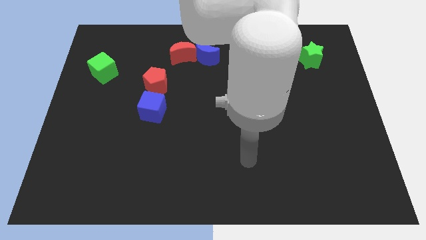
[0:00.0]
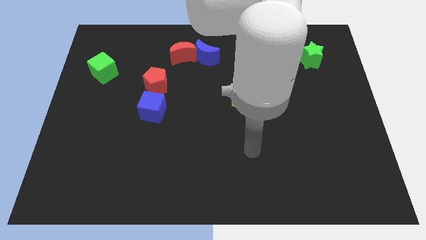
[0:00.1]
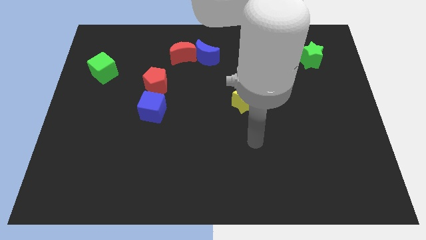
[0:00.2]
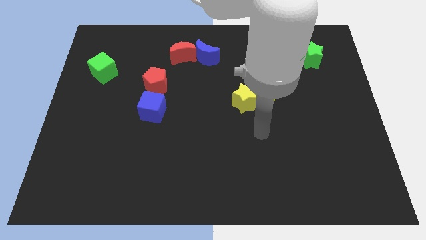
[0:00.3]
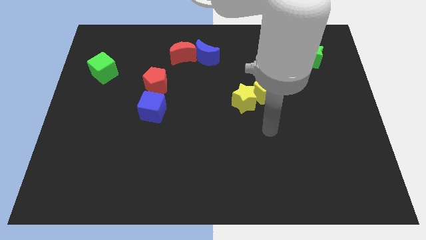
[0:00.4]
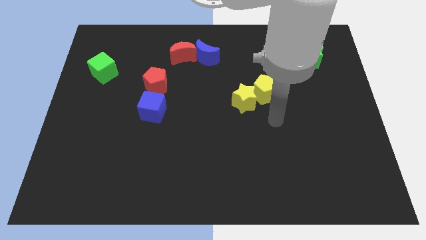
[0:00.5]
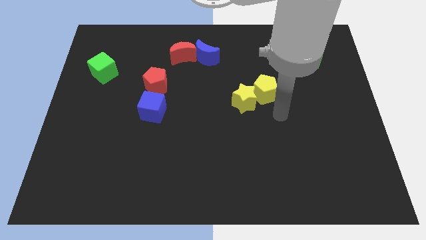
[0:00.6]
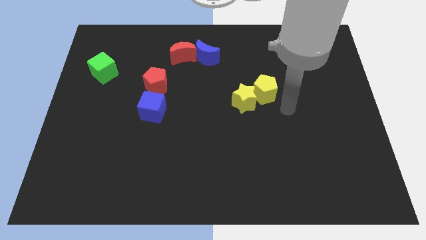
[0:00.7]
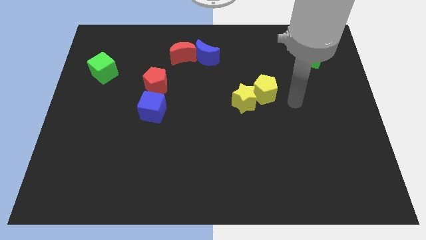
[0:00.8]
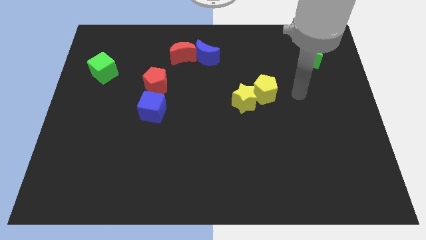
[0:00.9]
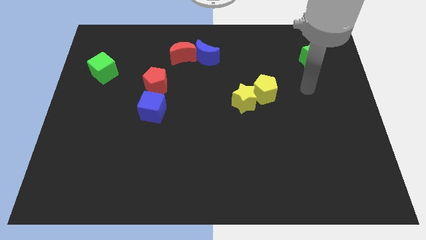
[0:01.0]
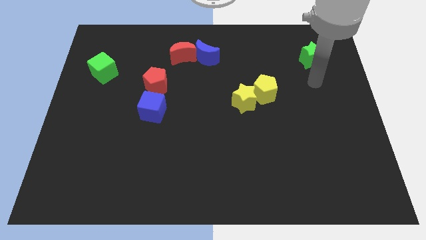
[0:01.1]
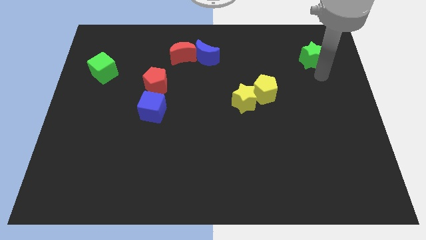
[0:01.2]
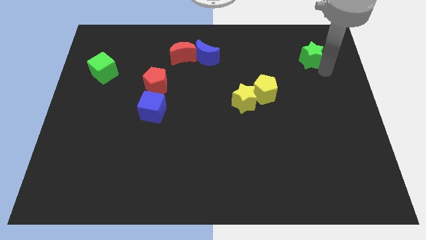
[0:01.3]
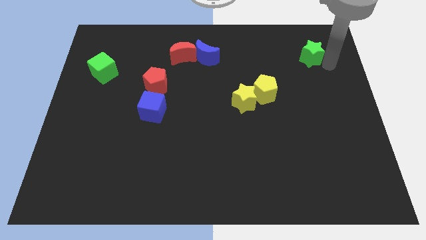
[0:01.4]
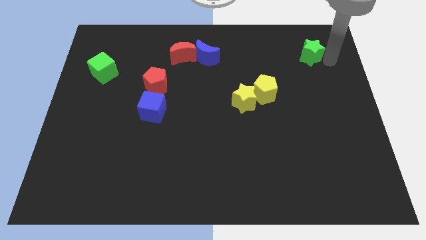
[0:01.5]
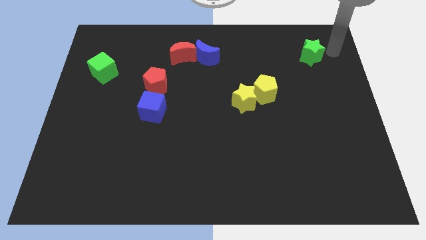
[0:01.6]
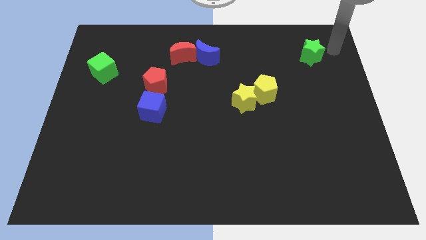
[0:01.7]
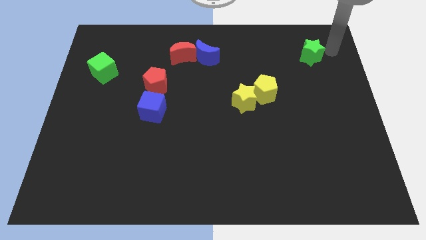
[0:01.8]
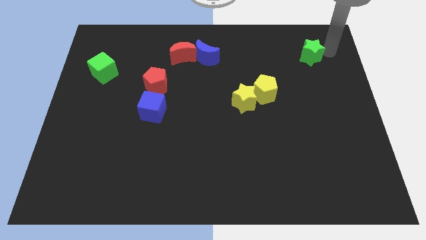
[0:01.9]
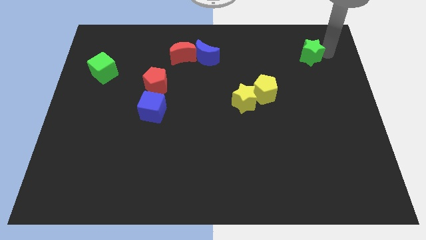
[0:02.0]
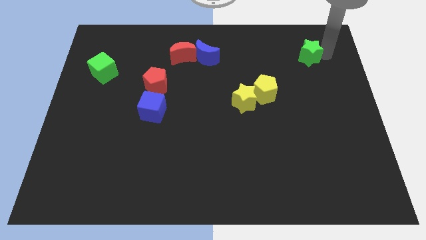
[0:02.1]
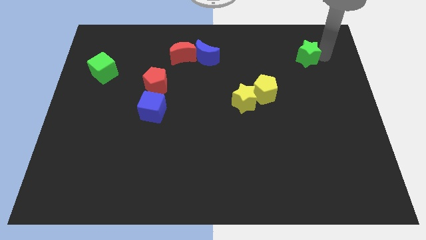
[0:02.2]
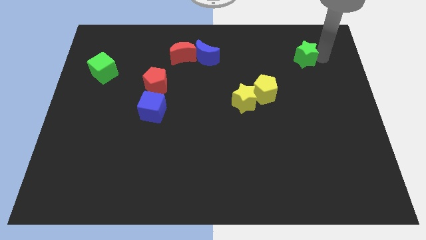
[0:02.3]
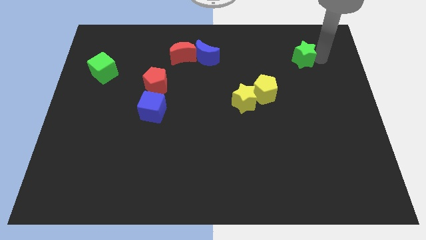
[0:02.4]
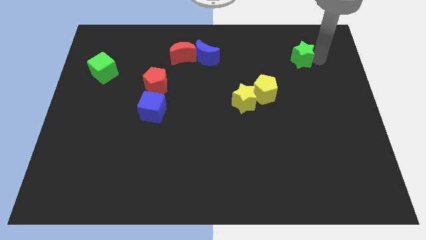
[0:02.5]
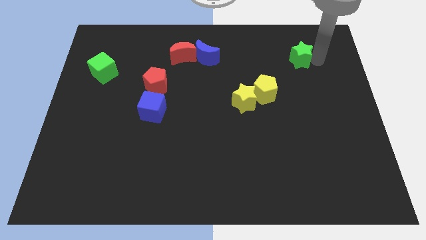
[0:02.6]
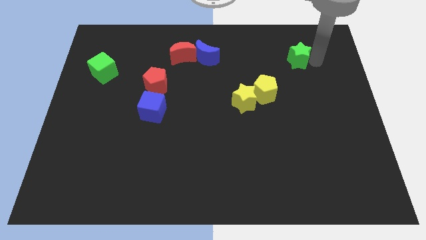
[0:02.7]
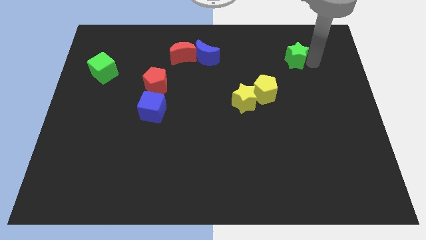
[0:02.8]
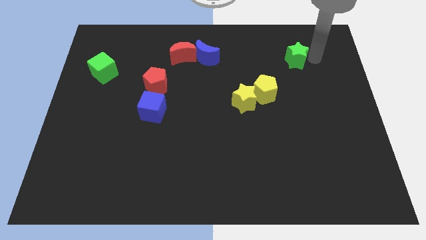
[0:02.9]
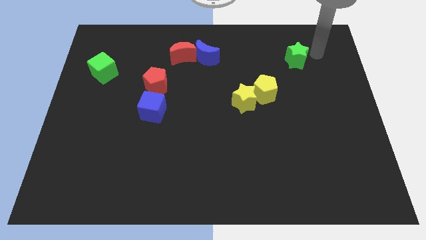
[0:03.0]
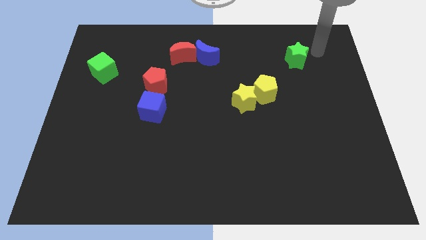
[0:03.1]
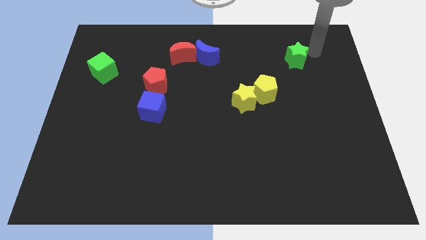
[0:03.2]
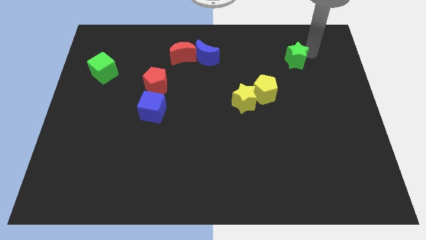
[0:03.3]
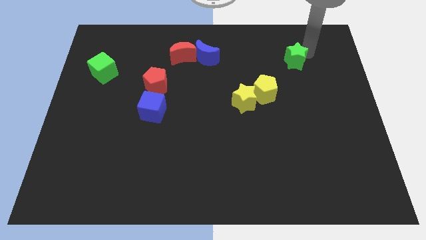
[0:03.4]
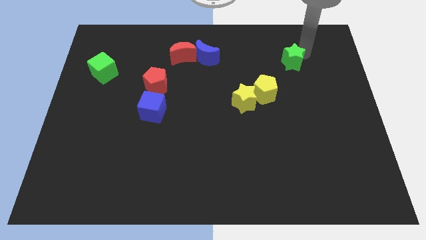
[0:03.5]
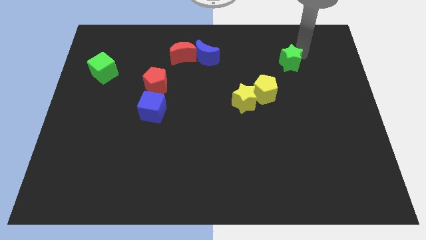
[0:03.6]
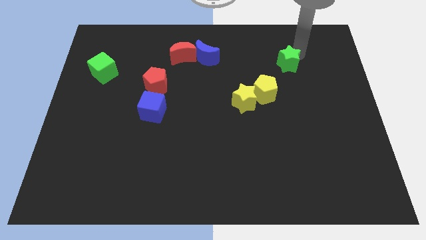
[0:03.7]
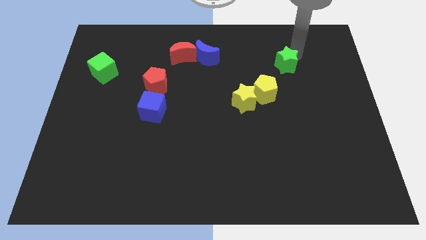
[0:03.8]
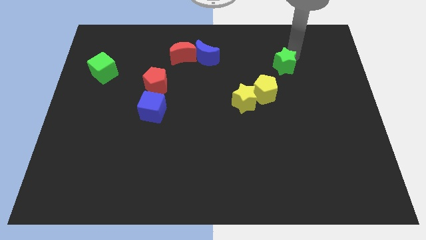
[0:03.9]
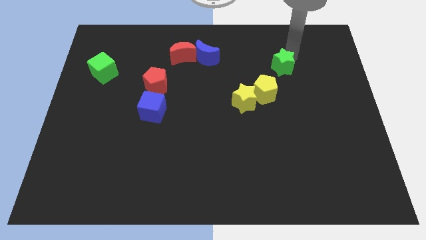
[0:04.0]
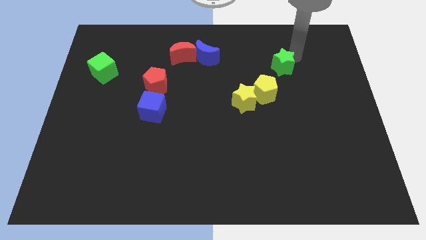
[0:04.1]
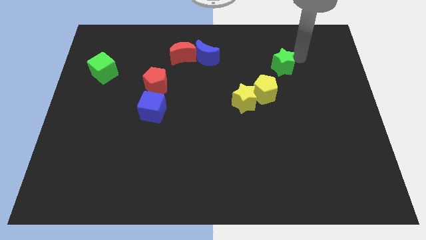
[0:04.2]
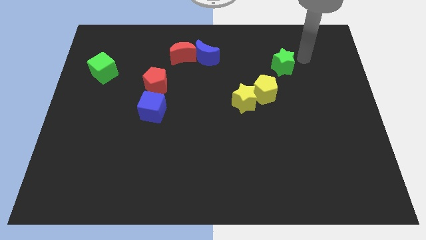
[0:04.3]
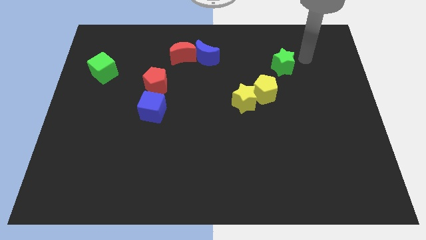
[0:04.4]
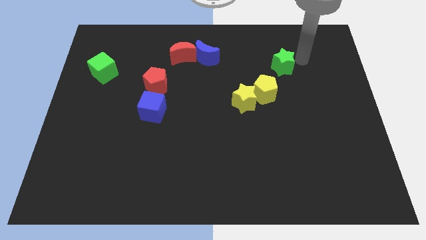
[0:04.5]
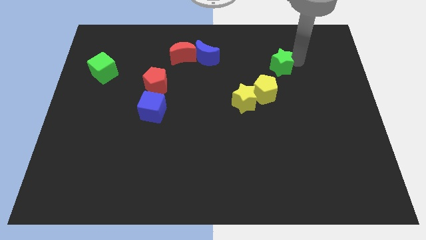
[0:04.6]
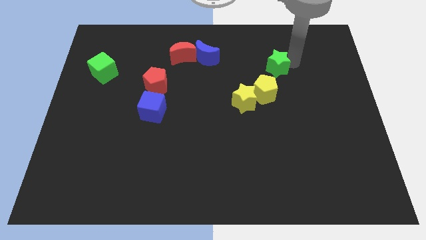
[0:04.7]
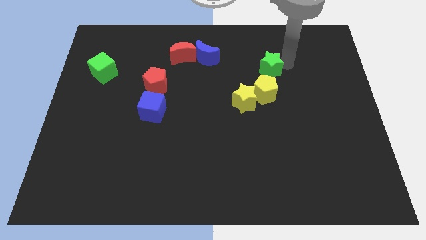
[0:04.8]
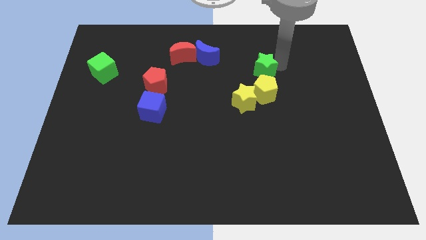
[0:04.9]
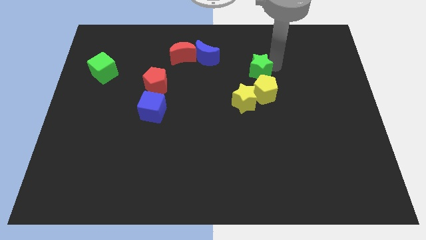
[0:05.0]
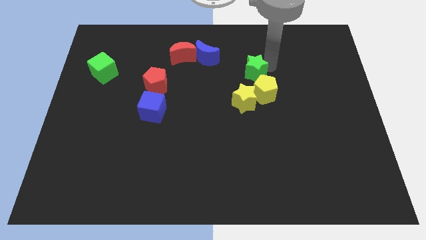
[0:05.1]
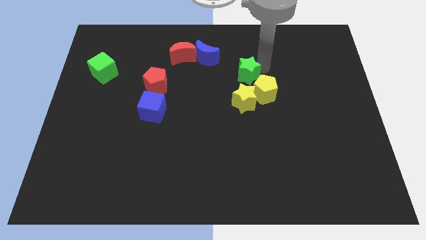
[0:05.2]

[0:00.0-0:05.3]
move the green star to the middle of the board
